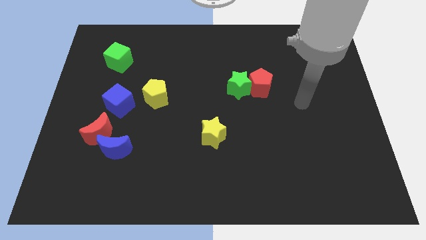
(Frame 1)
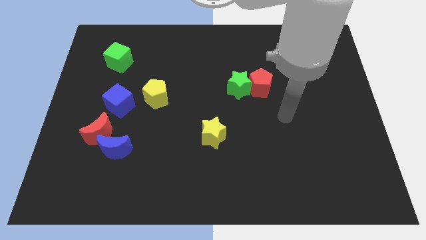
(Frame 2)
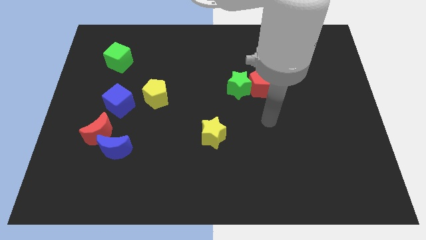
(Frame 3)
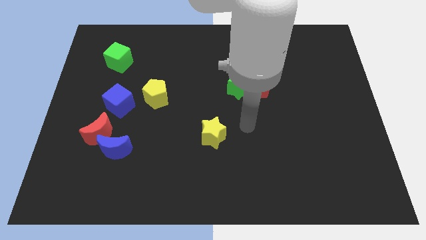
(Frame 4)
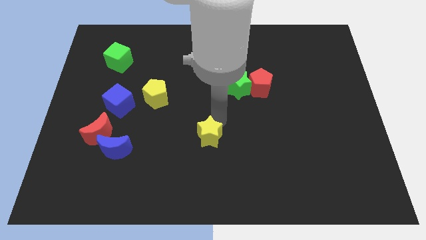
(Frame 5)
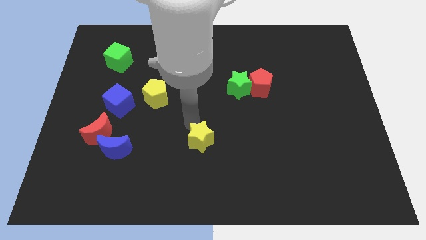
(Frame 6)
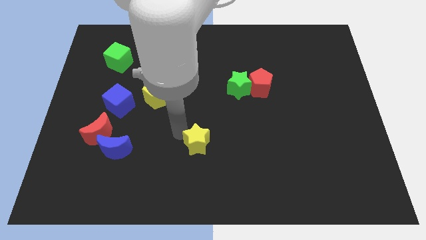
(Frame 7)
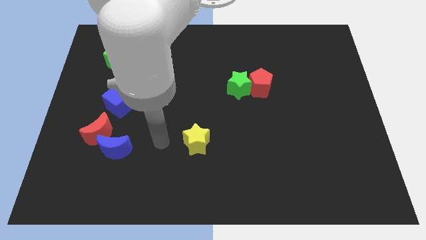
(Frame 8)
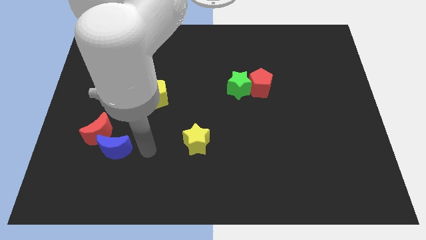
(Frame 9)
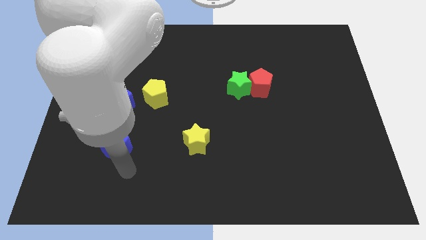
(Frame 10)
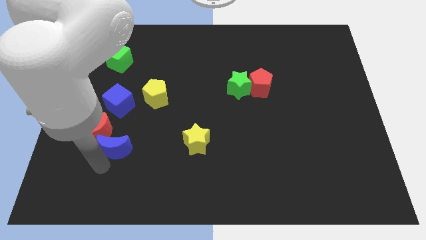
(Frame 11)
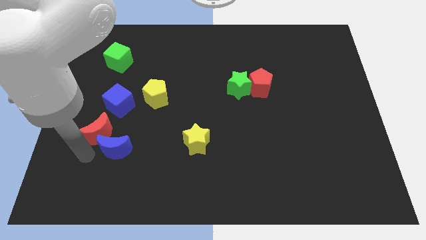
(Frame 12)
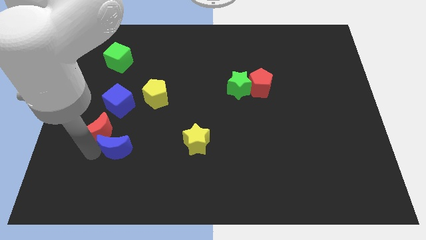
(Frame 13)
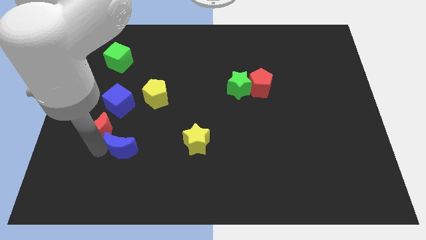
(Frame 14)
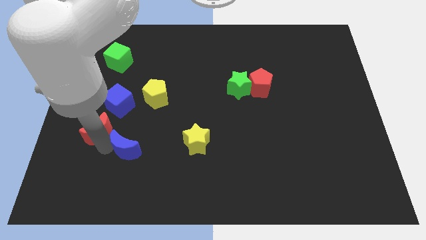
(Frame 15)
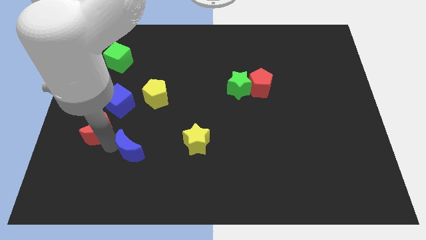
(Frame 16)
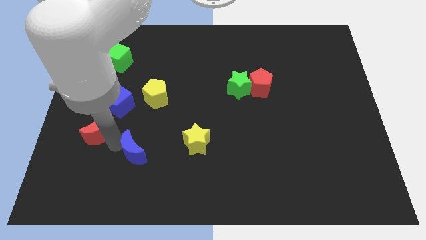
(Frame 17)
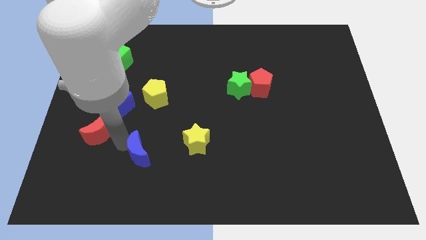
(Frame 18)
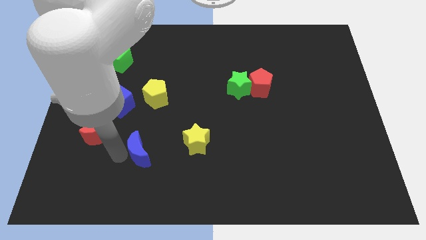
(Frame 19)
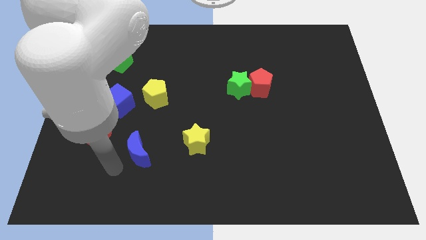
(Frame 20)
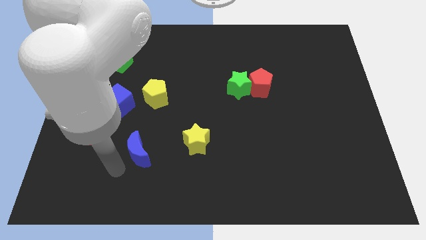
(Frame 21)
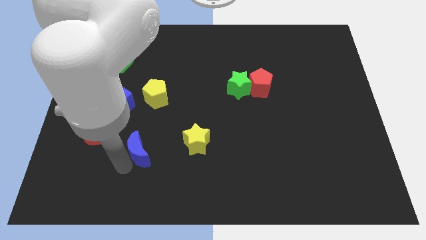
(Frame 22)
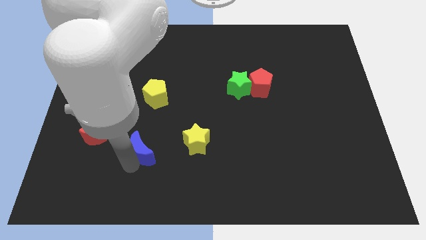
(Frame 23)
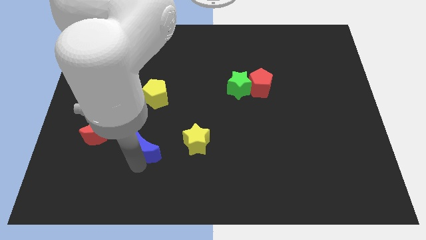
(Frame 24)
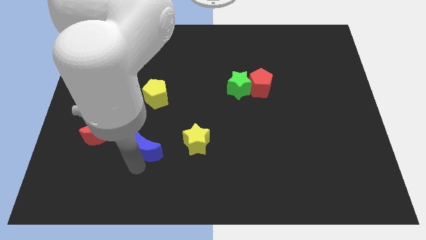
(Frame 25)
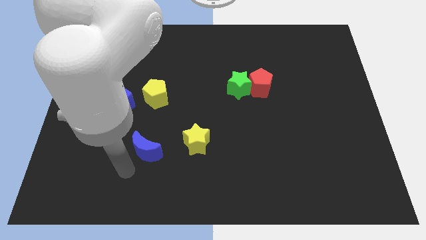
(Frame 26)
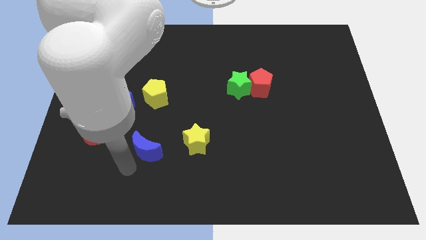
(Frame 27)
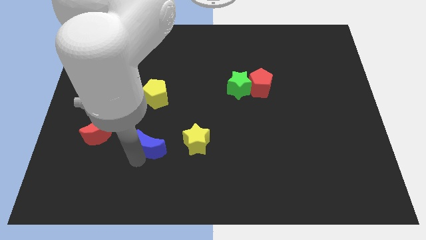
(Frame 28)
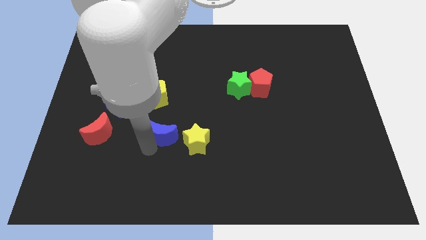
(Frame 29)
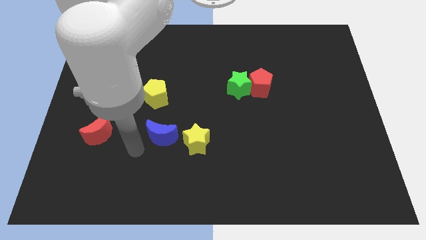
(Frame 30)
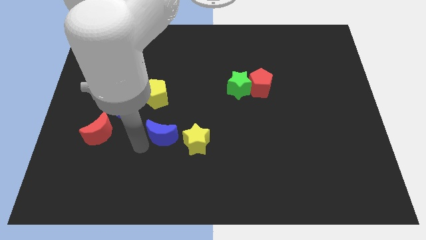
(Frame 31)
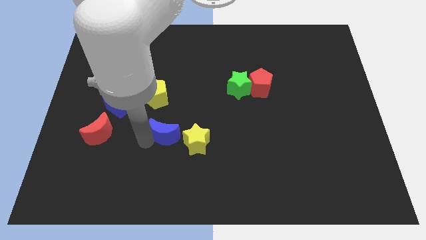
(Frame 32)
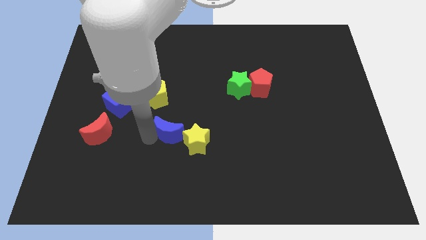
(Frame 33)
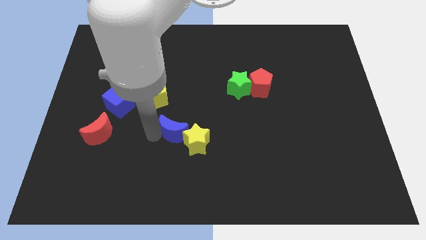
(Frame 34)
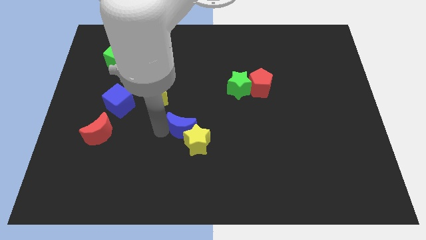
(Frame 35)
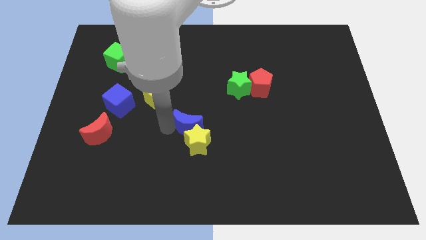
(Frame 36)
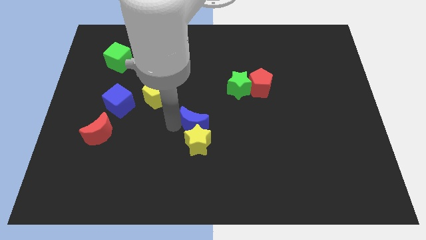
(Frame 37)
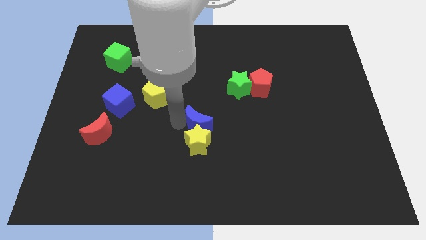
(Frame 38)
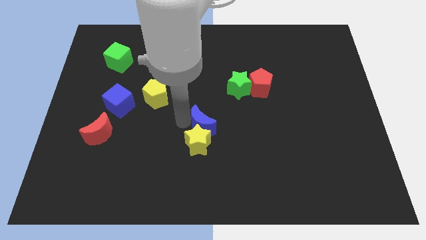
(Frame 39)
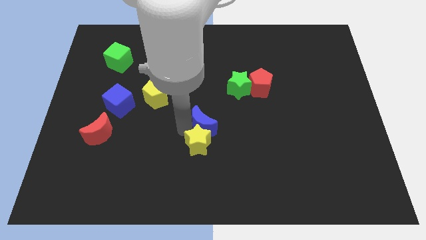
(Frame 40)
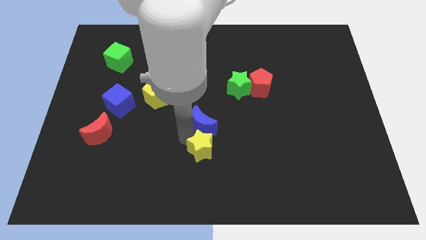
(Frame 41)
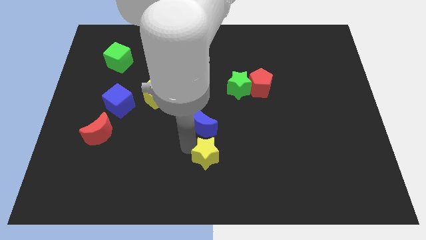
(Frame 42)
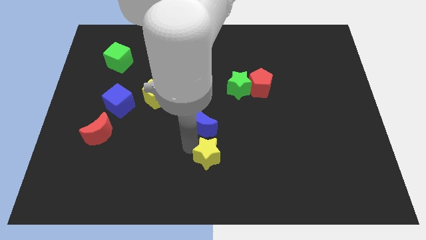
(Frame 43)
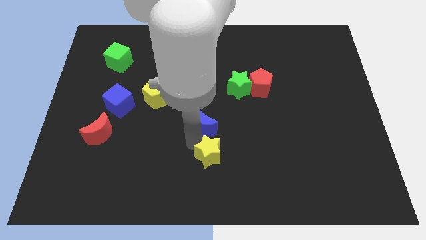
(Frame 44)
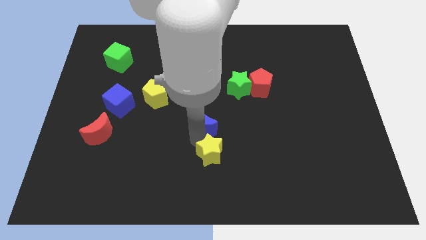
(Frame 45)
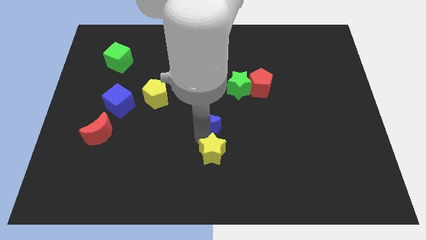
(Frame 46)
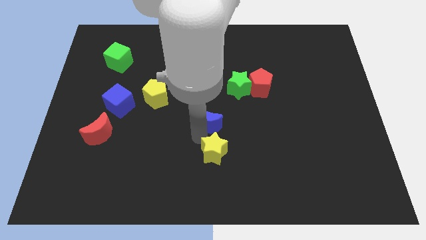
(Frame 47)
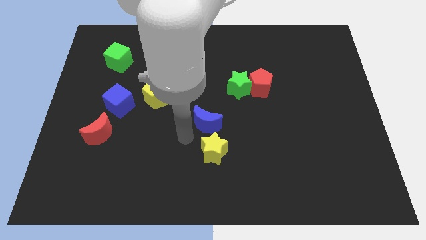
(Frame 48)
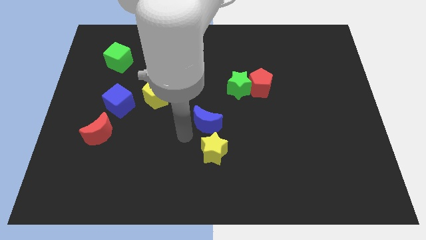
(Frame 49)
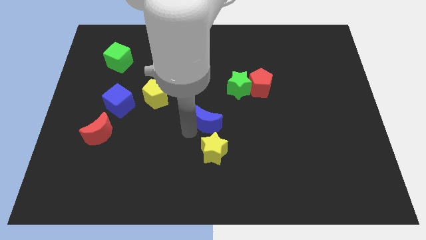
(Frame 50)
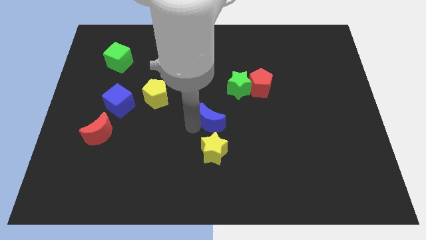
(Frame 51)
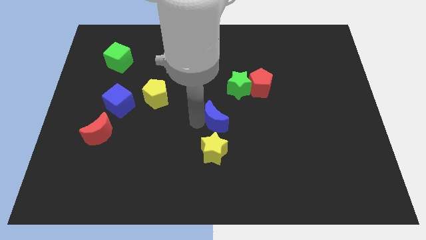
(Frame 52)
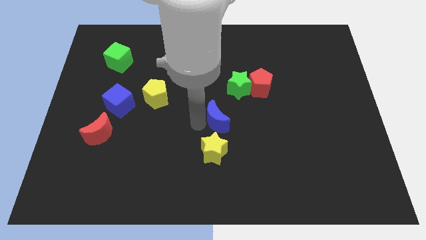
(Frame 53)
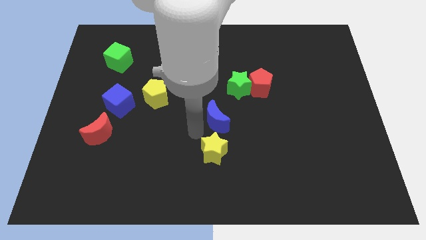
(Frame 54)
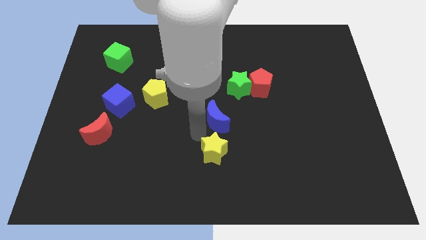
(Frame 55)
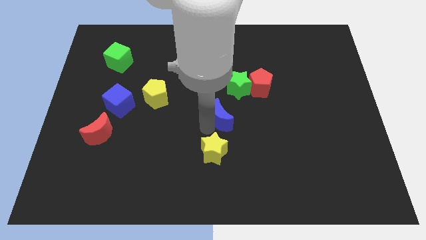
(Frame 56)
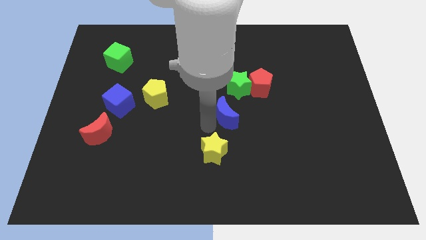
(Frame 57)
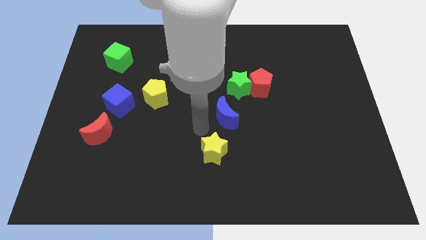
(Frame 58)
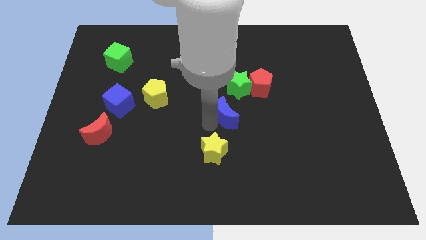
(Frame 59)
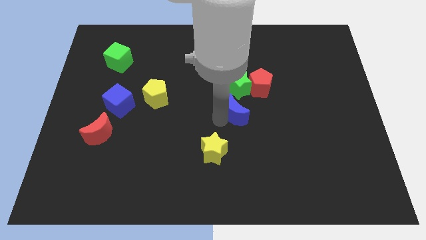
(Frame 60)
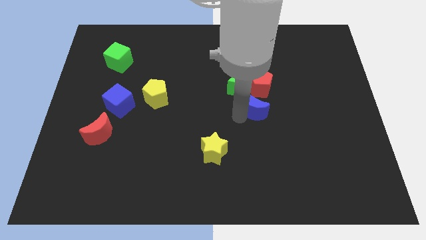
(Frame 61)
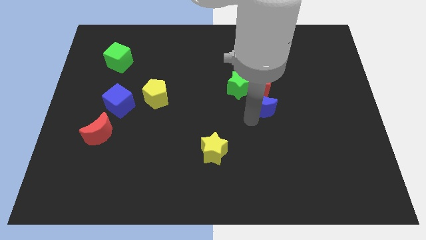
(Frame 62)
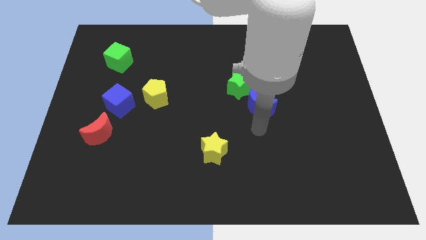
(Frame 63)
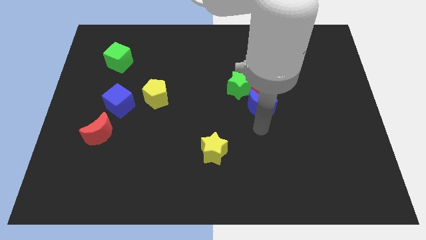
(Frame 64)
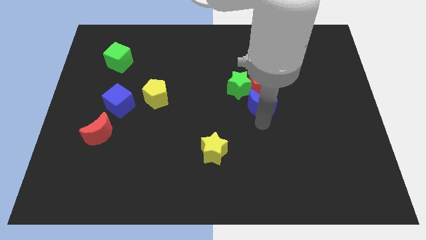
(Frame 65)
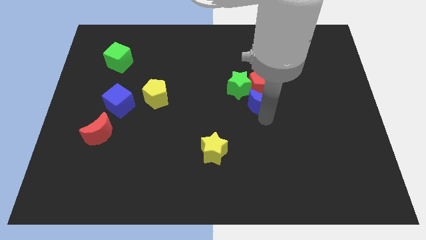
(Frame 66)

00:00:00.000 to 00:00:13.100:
slide the blue moon close to the red pentagon

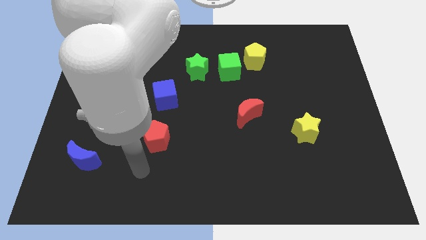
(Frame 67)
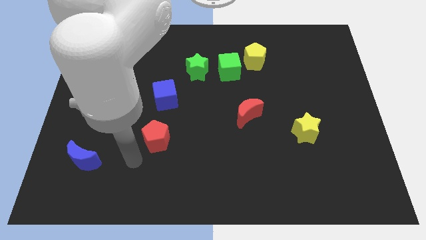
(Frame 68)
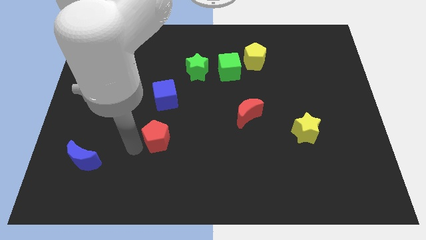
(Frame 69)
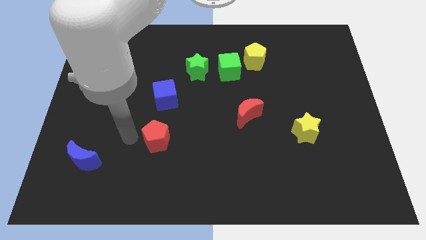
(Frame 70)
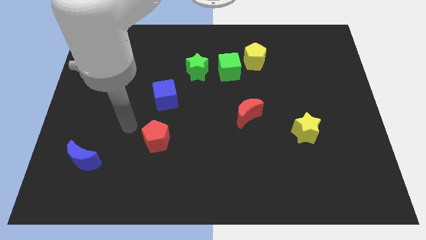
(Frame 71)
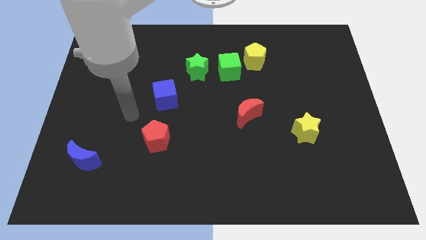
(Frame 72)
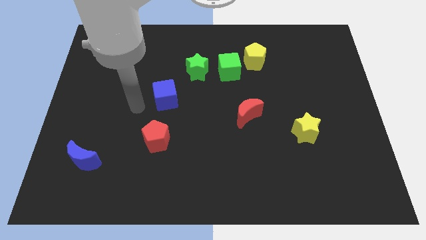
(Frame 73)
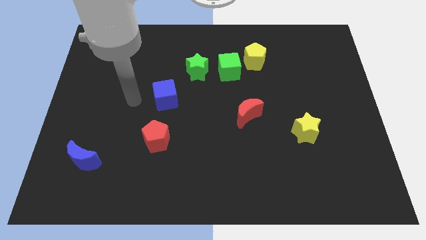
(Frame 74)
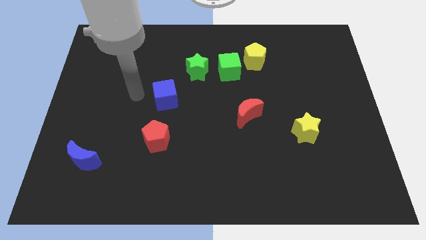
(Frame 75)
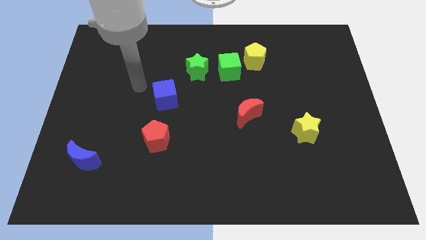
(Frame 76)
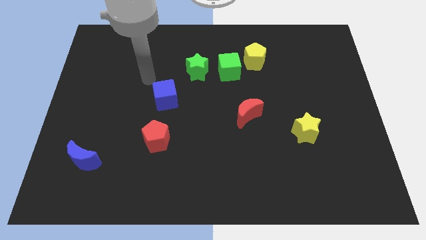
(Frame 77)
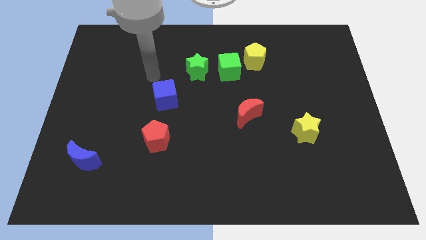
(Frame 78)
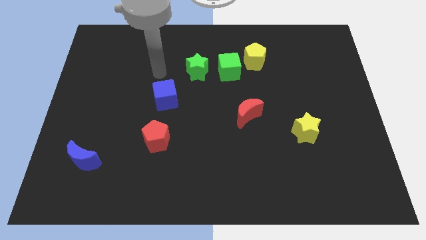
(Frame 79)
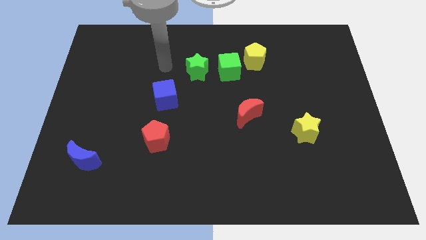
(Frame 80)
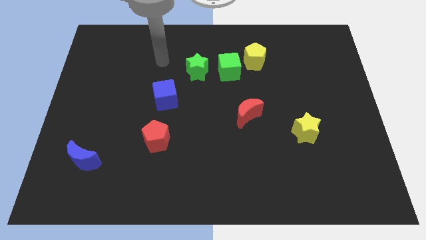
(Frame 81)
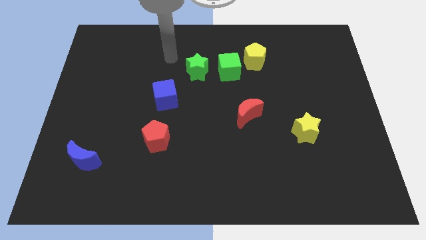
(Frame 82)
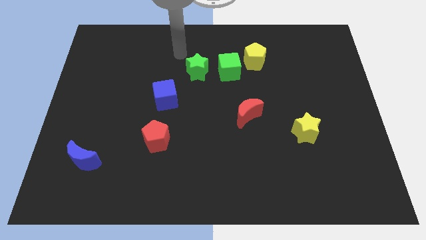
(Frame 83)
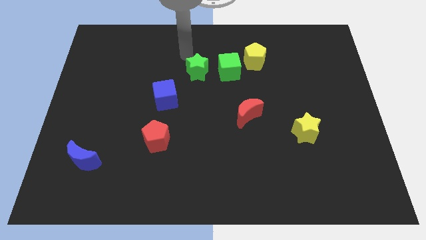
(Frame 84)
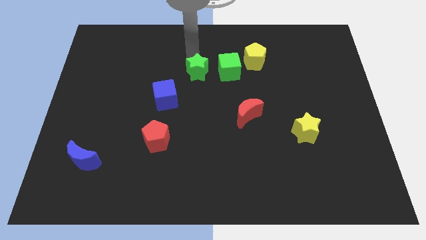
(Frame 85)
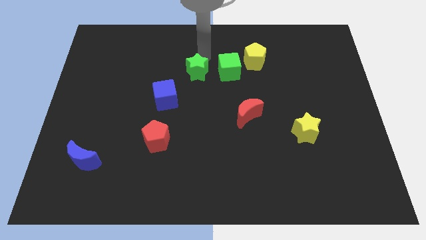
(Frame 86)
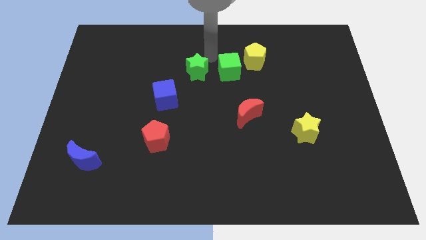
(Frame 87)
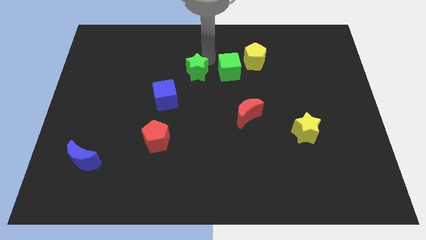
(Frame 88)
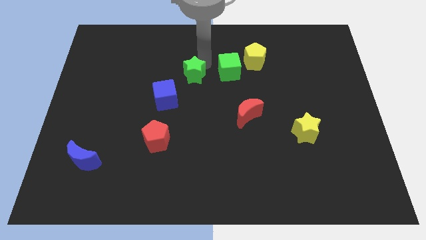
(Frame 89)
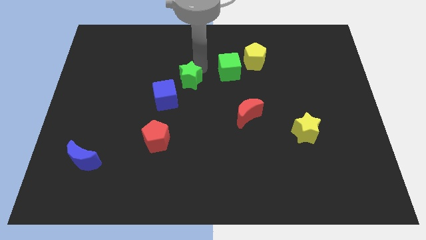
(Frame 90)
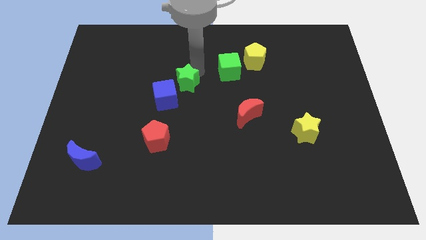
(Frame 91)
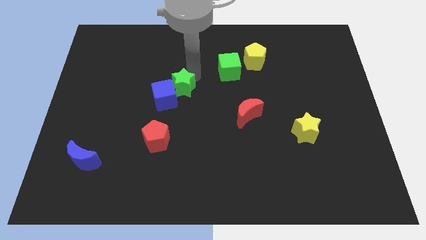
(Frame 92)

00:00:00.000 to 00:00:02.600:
move the green star to the blue cube
